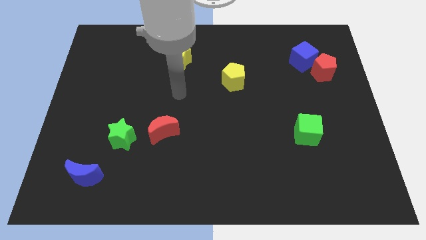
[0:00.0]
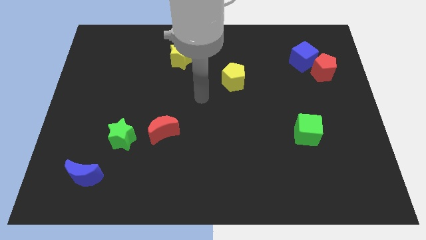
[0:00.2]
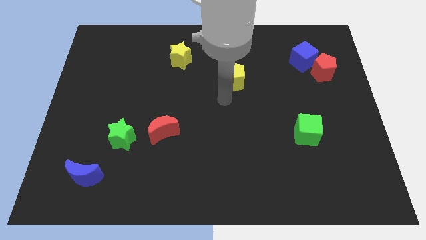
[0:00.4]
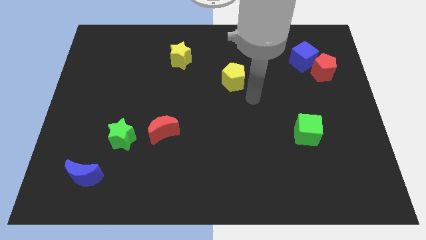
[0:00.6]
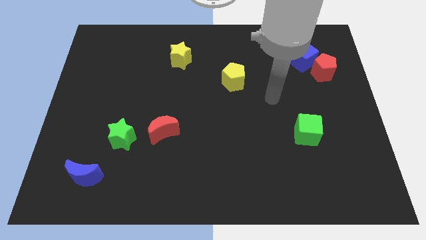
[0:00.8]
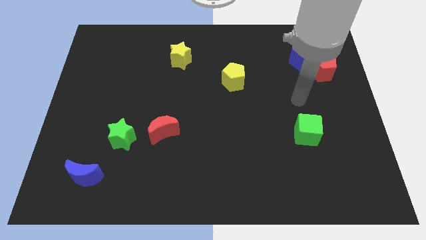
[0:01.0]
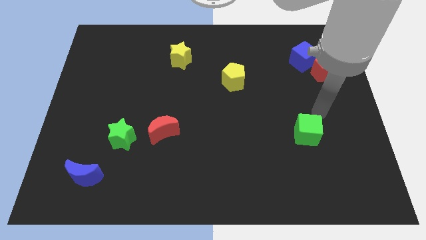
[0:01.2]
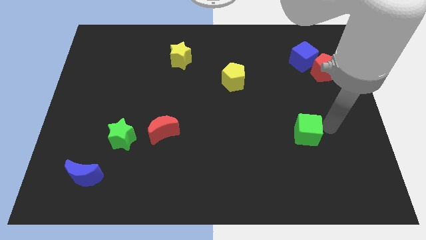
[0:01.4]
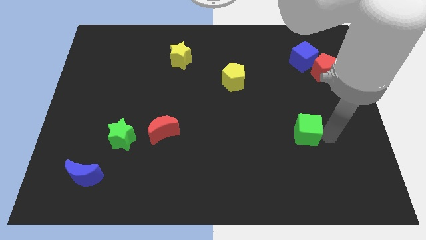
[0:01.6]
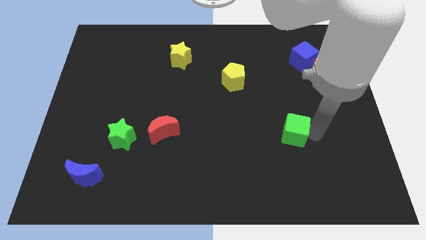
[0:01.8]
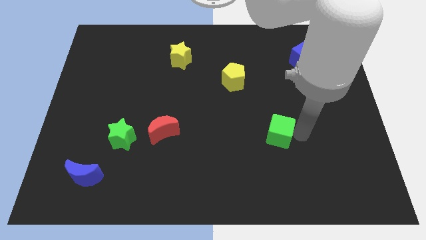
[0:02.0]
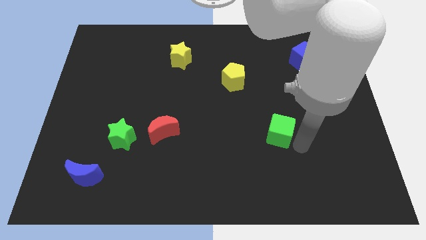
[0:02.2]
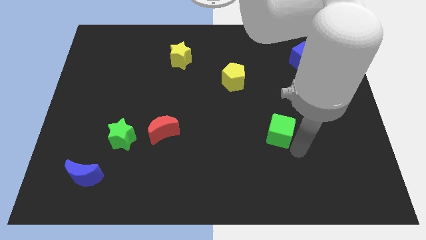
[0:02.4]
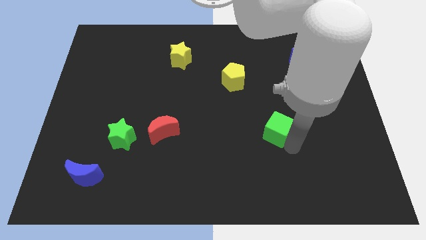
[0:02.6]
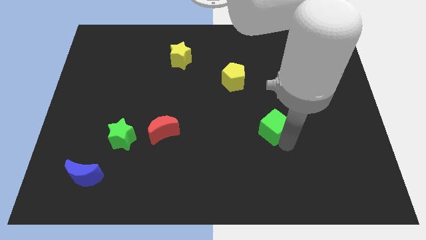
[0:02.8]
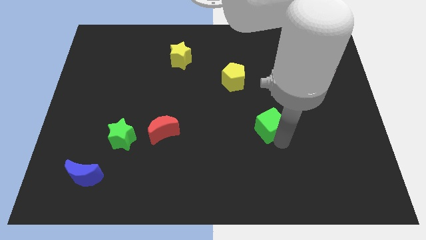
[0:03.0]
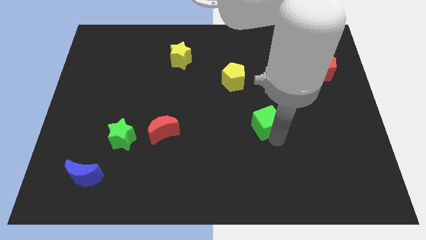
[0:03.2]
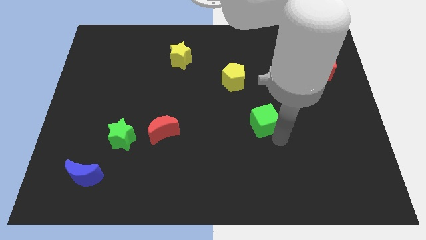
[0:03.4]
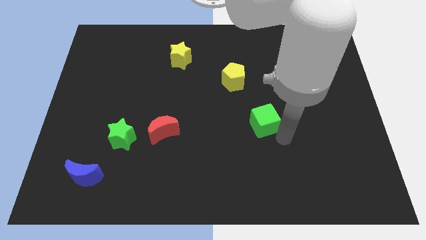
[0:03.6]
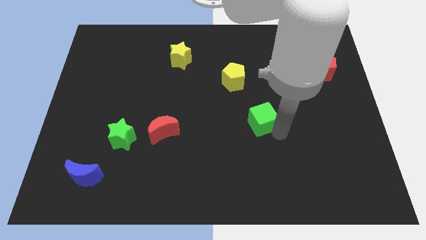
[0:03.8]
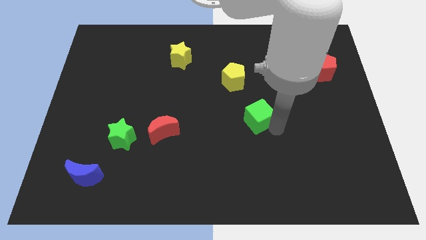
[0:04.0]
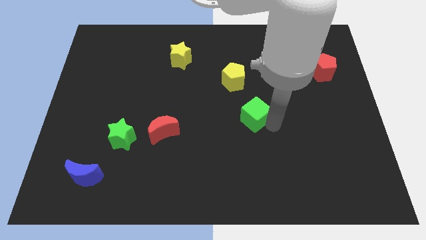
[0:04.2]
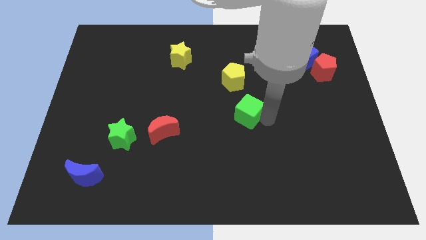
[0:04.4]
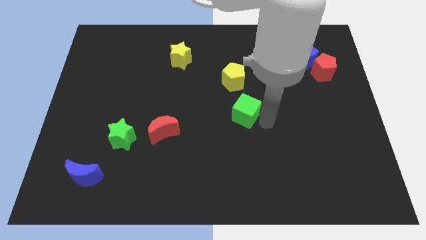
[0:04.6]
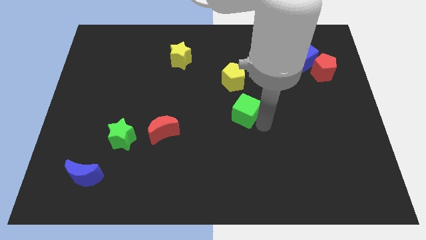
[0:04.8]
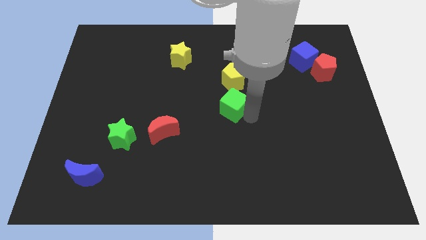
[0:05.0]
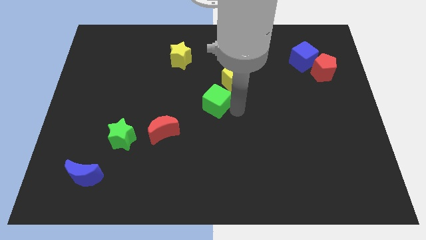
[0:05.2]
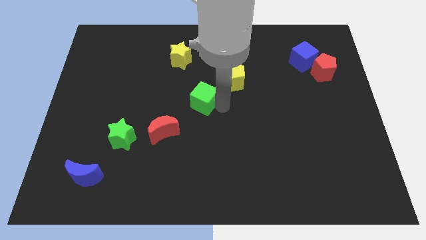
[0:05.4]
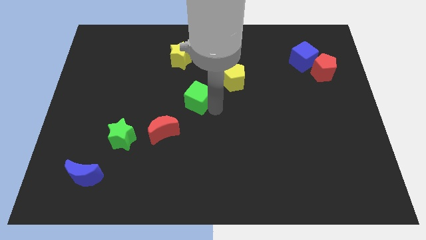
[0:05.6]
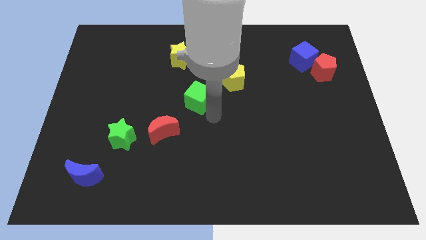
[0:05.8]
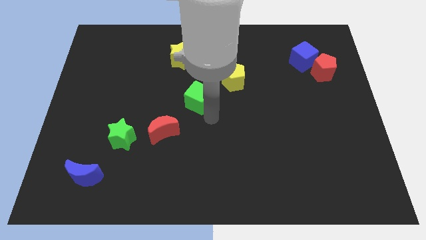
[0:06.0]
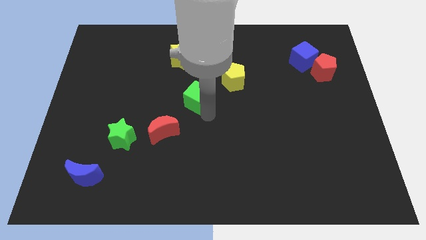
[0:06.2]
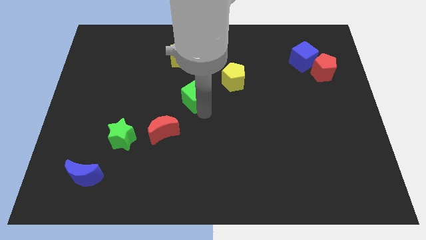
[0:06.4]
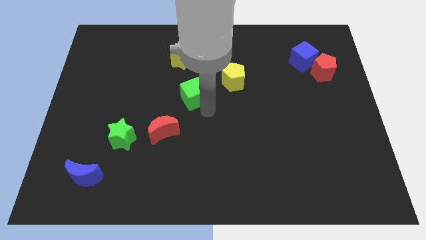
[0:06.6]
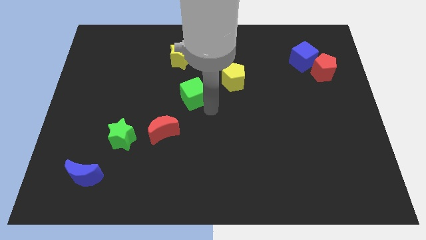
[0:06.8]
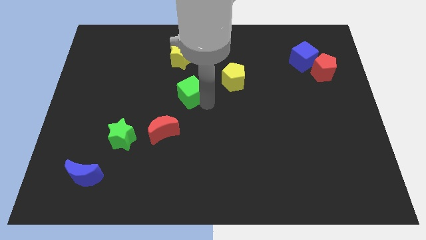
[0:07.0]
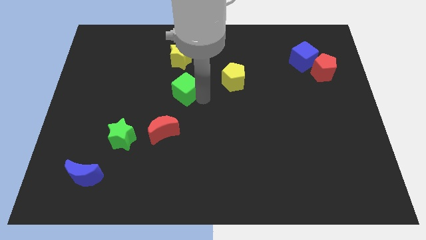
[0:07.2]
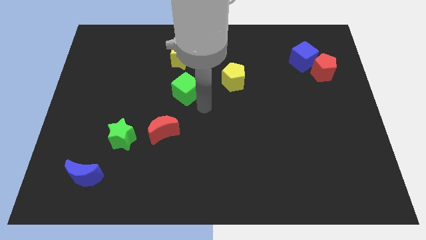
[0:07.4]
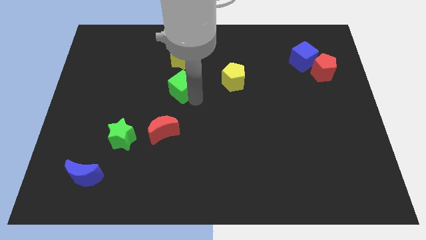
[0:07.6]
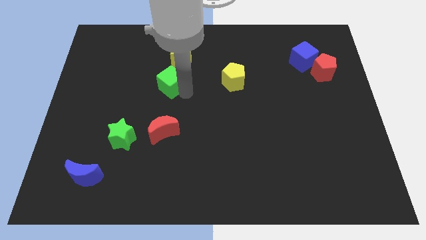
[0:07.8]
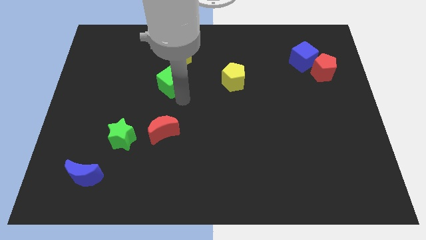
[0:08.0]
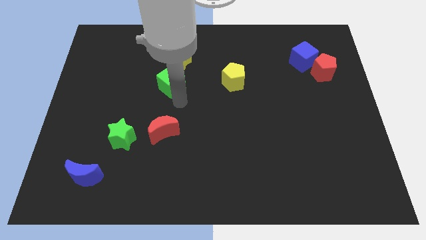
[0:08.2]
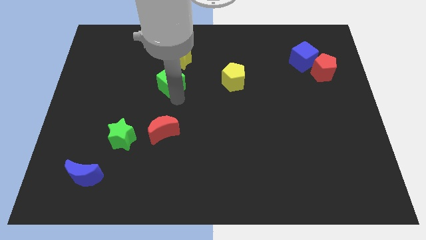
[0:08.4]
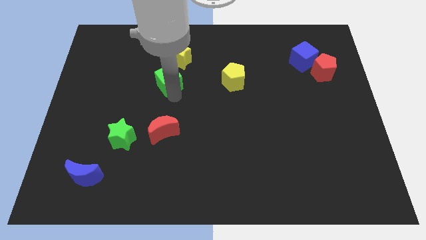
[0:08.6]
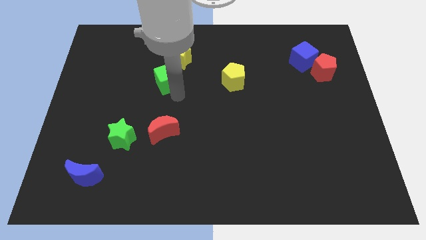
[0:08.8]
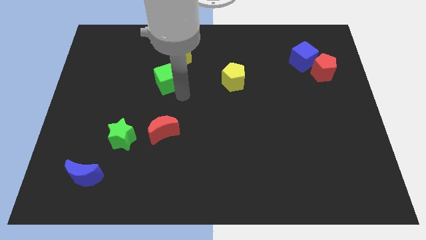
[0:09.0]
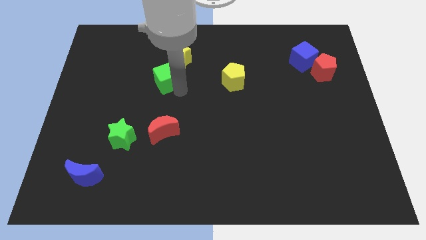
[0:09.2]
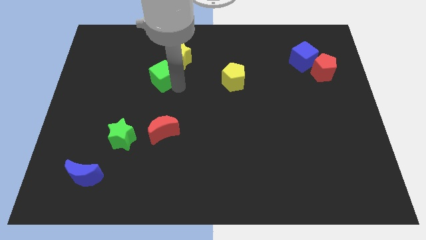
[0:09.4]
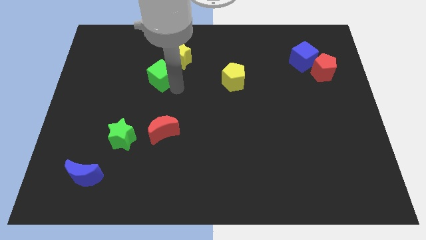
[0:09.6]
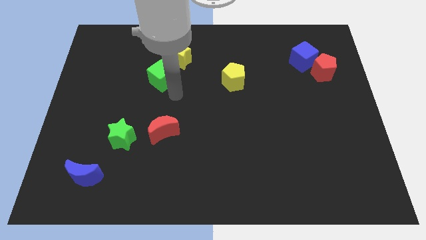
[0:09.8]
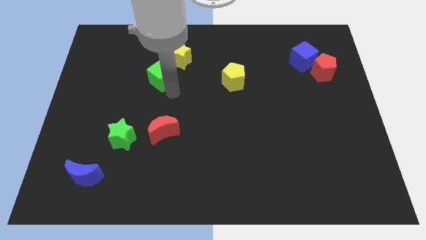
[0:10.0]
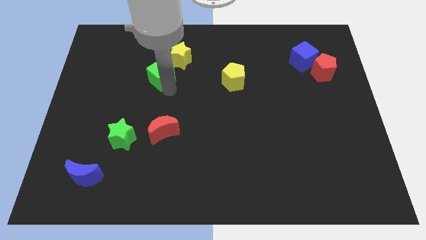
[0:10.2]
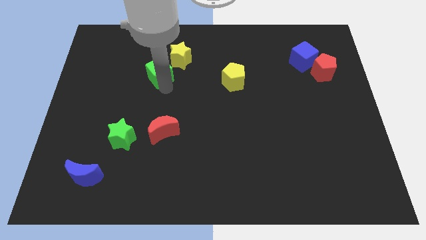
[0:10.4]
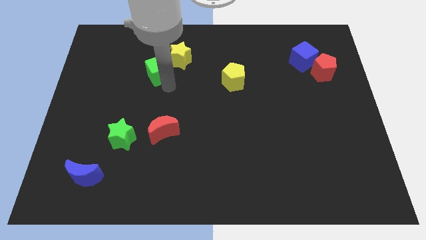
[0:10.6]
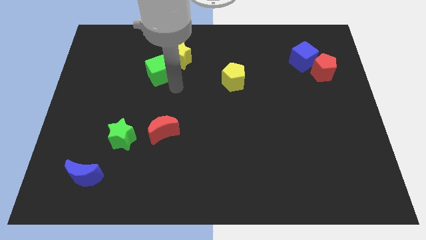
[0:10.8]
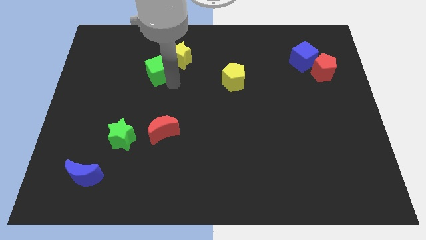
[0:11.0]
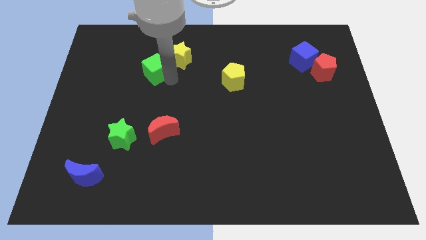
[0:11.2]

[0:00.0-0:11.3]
slide the green cube to the left side of the yellow star

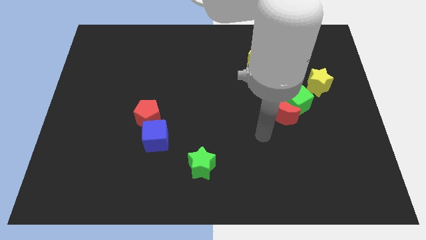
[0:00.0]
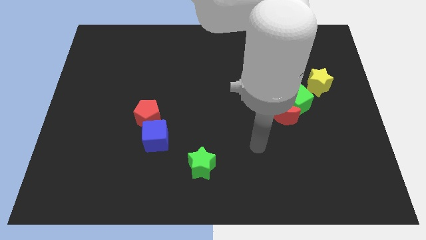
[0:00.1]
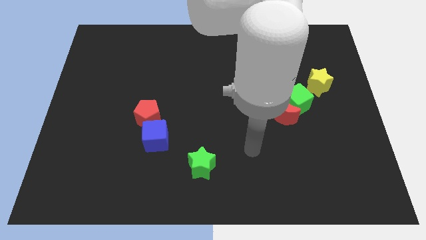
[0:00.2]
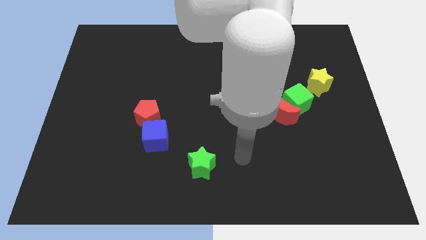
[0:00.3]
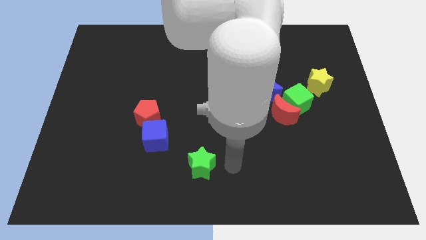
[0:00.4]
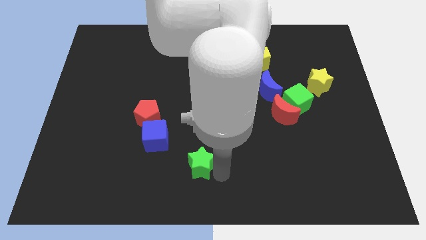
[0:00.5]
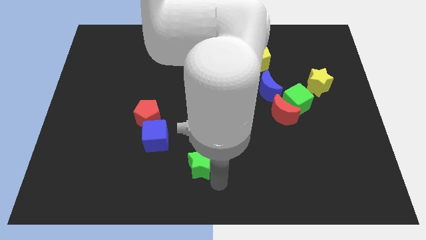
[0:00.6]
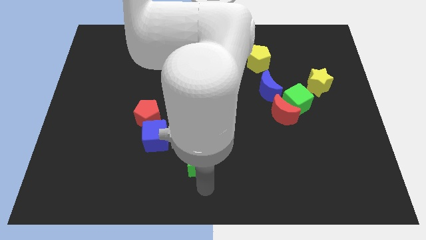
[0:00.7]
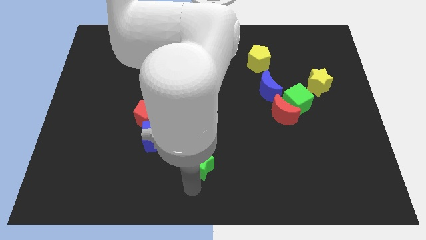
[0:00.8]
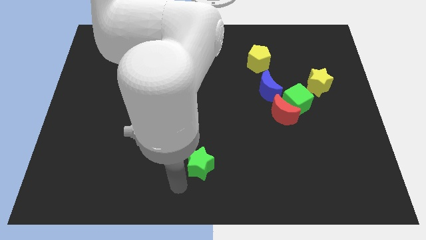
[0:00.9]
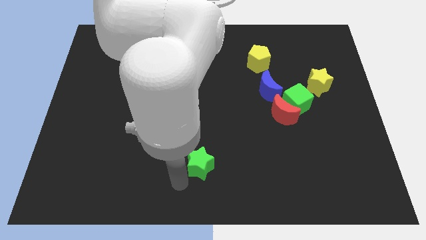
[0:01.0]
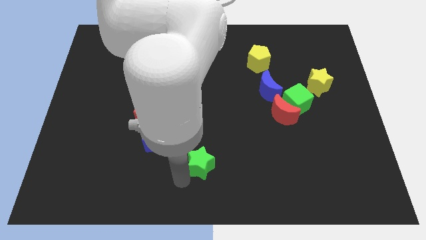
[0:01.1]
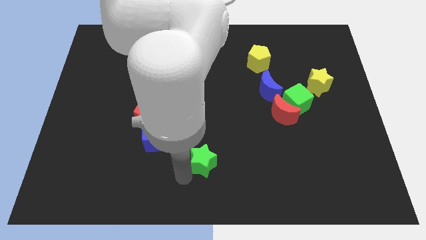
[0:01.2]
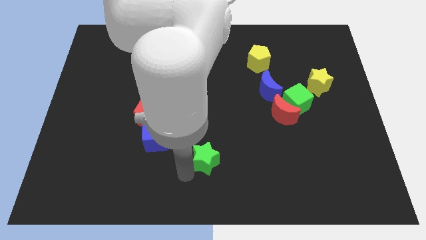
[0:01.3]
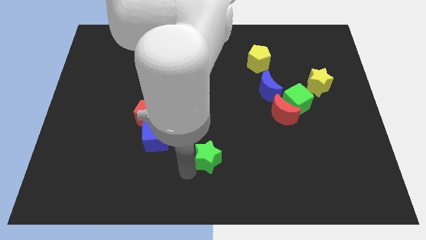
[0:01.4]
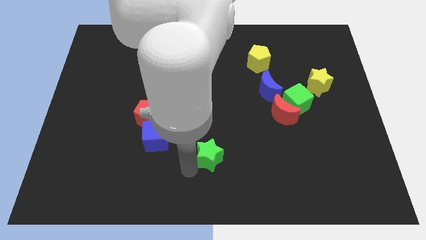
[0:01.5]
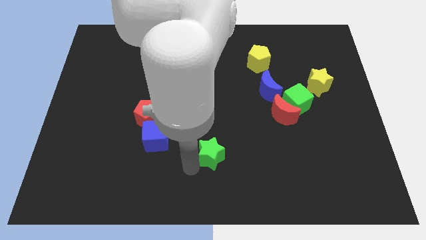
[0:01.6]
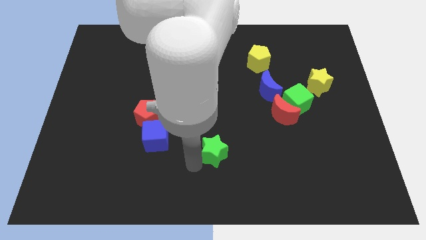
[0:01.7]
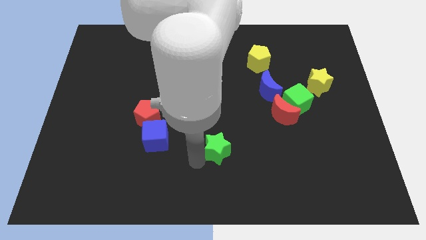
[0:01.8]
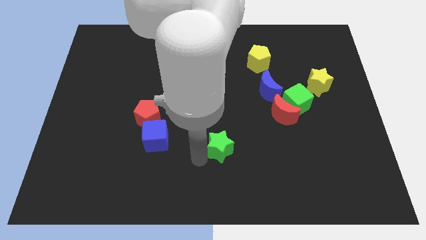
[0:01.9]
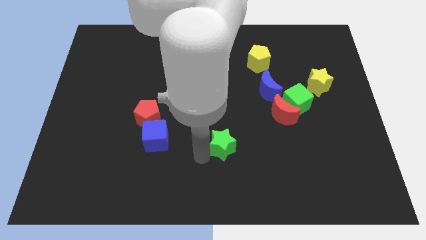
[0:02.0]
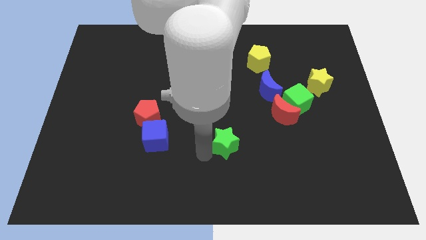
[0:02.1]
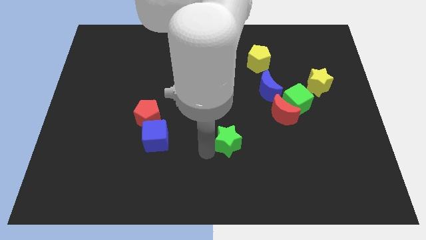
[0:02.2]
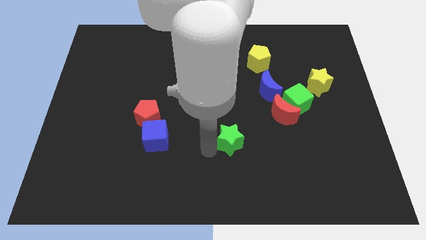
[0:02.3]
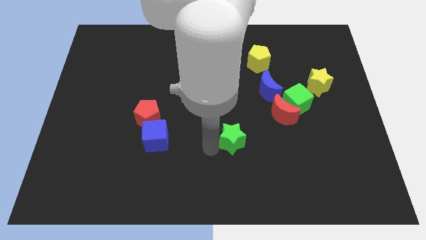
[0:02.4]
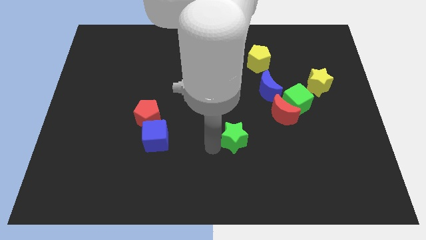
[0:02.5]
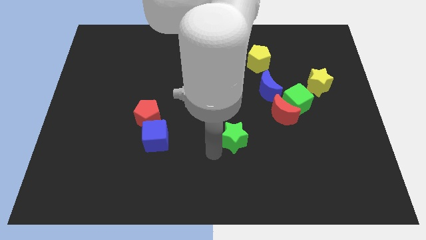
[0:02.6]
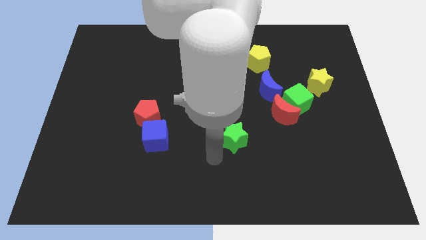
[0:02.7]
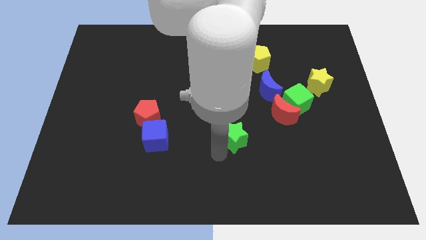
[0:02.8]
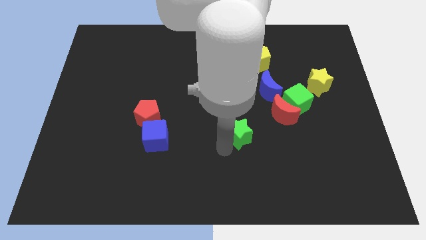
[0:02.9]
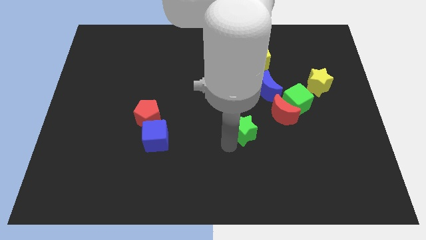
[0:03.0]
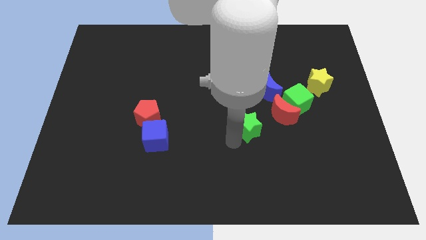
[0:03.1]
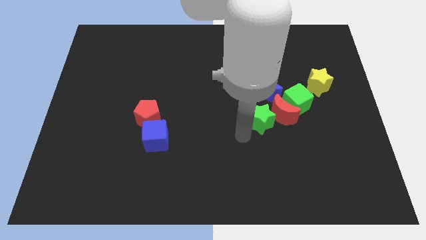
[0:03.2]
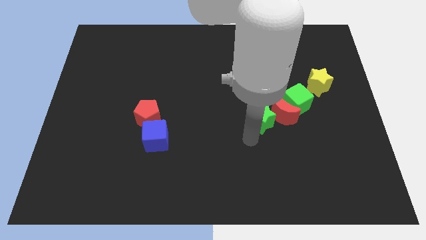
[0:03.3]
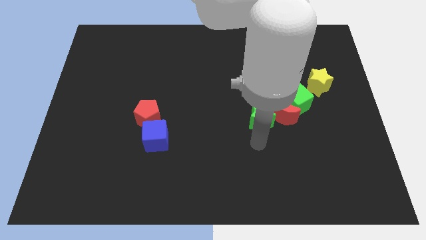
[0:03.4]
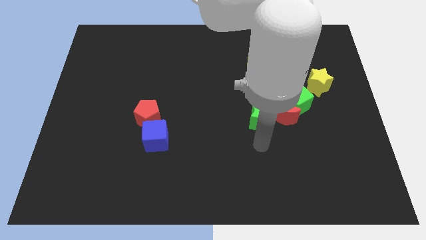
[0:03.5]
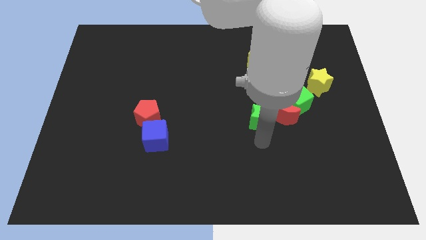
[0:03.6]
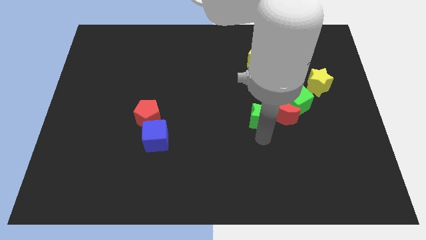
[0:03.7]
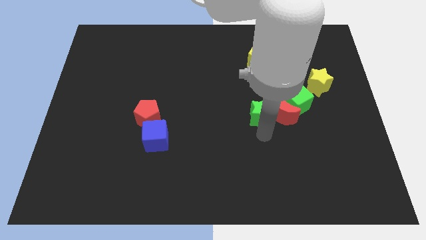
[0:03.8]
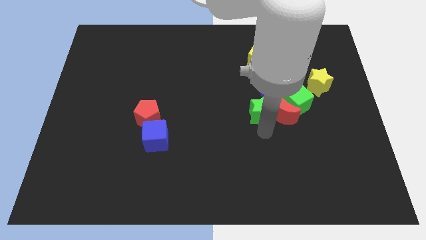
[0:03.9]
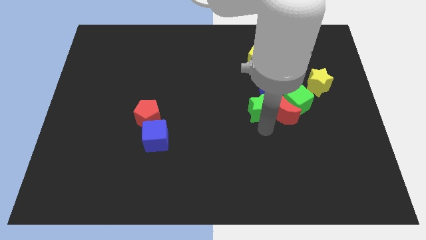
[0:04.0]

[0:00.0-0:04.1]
move the green star to the bottom side of the yellow pentagon
